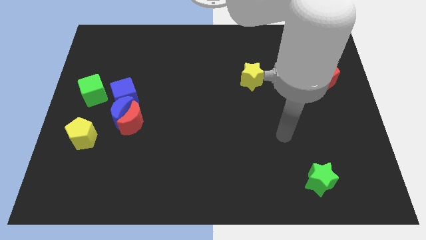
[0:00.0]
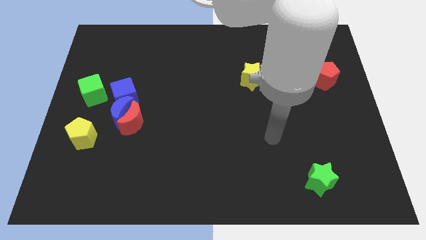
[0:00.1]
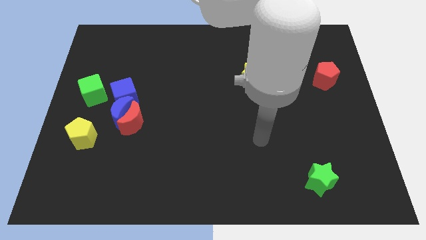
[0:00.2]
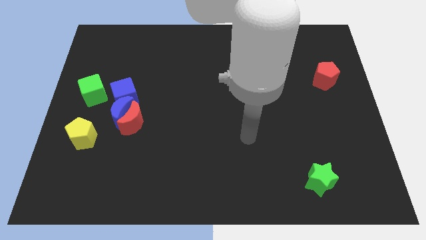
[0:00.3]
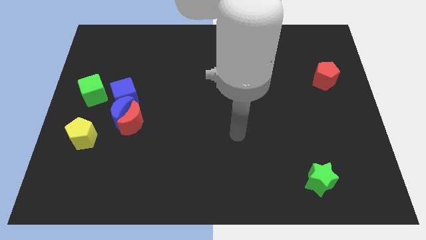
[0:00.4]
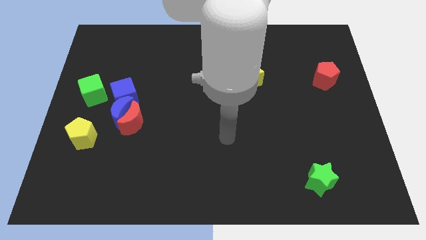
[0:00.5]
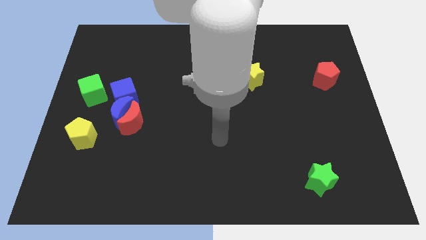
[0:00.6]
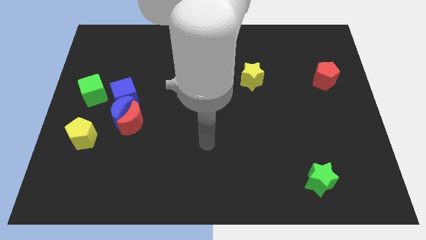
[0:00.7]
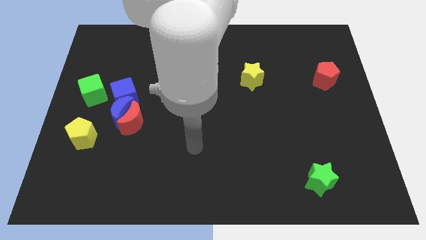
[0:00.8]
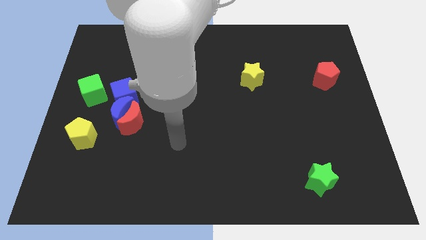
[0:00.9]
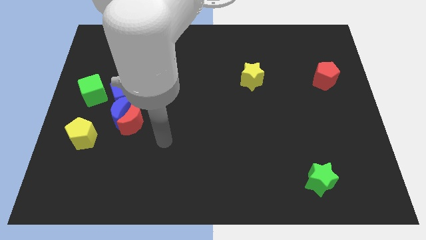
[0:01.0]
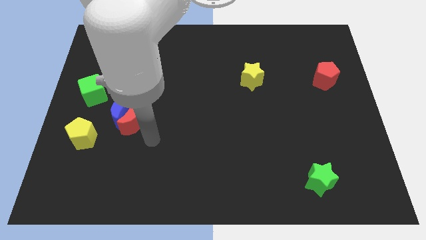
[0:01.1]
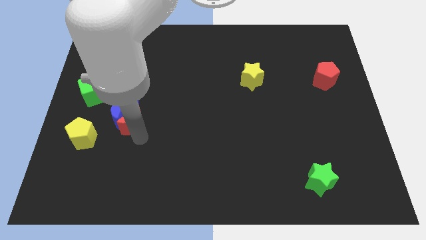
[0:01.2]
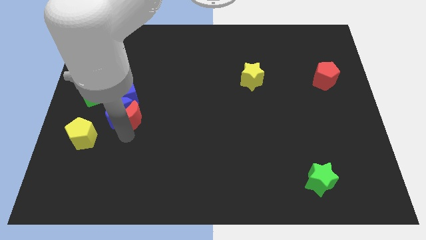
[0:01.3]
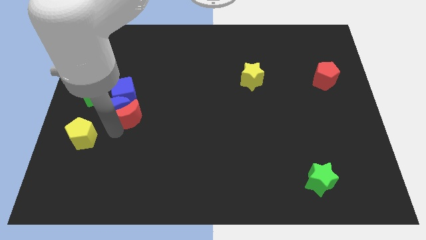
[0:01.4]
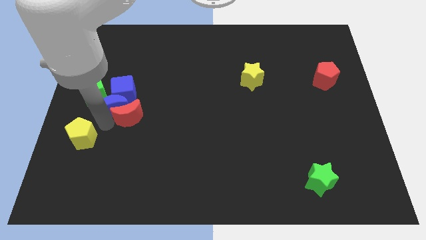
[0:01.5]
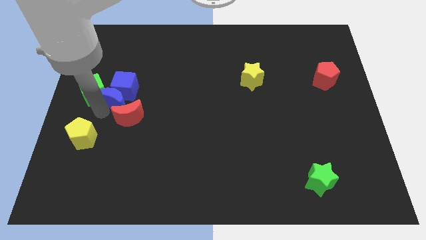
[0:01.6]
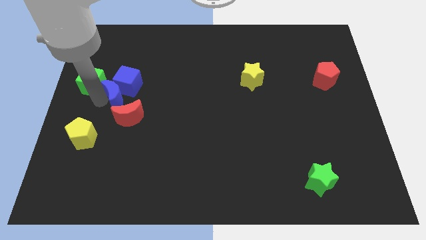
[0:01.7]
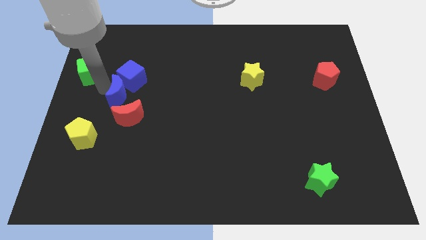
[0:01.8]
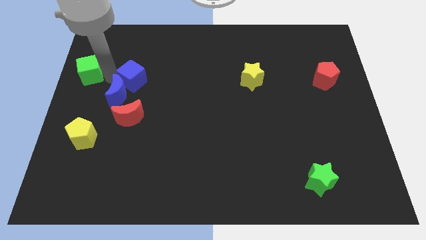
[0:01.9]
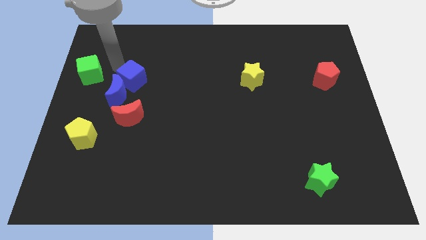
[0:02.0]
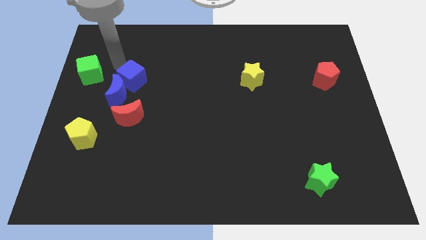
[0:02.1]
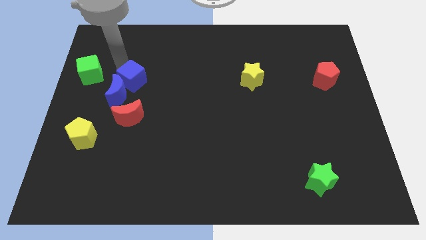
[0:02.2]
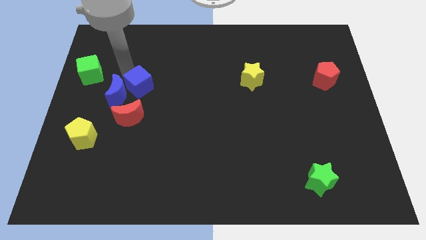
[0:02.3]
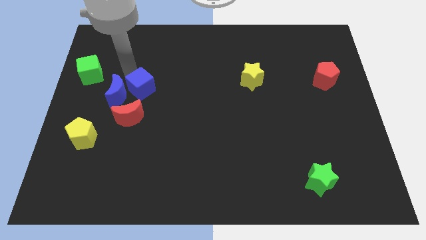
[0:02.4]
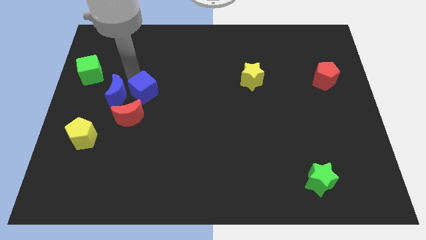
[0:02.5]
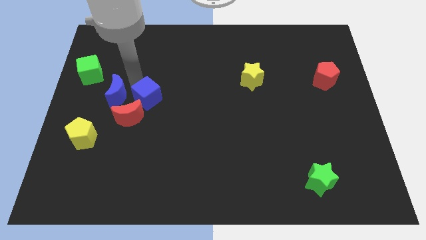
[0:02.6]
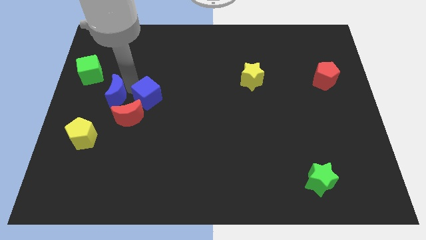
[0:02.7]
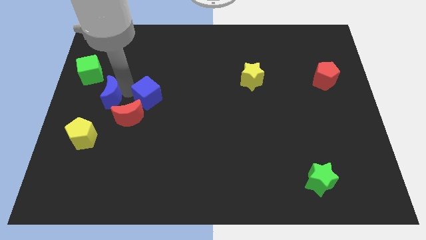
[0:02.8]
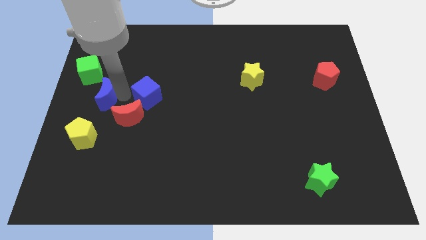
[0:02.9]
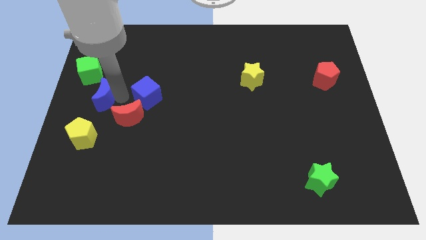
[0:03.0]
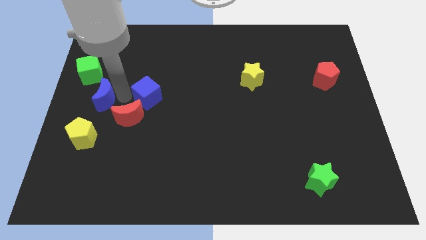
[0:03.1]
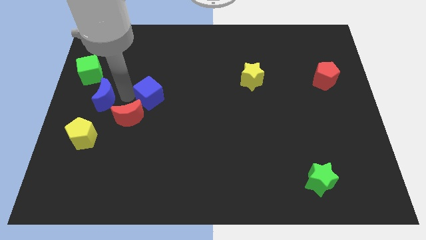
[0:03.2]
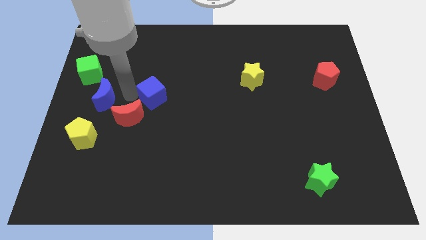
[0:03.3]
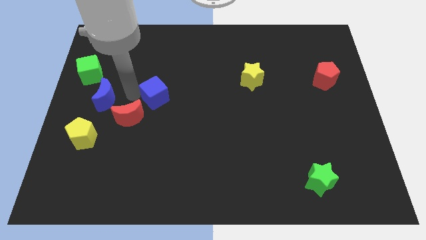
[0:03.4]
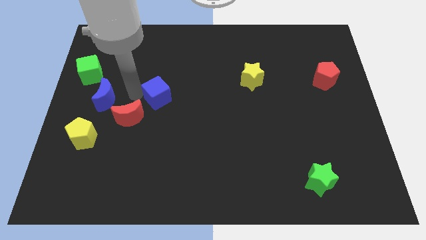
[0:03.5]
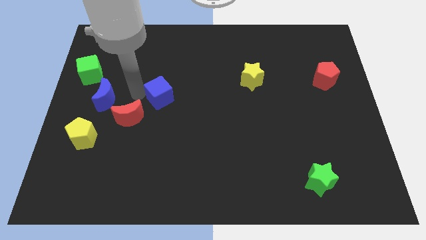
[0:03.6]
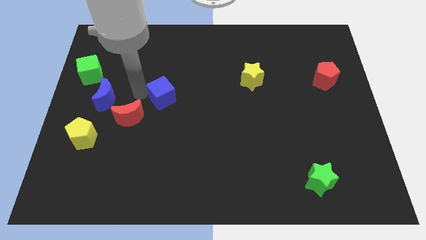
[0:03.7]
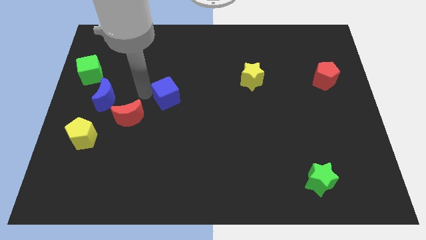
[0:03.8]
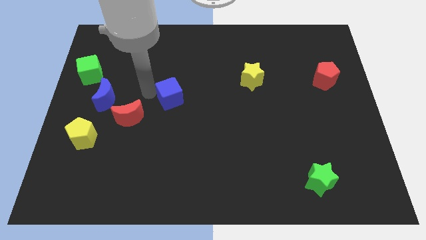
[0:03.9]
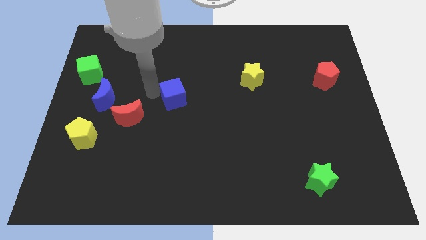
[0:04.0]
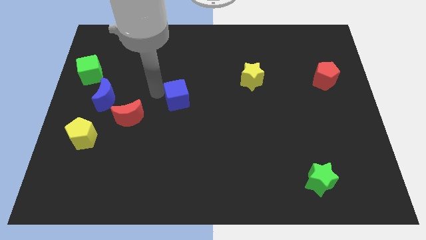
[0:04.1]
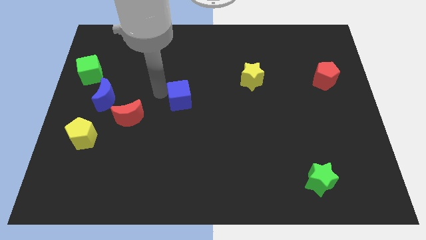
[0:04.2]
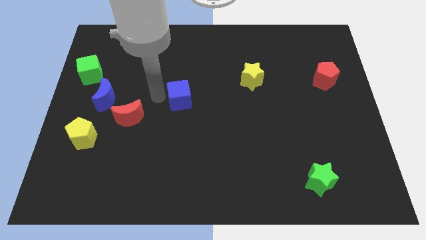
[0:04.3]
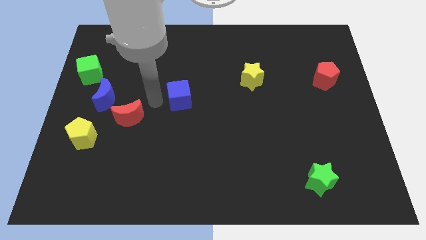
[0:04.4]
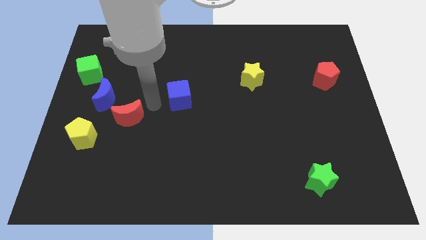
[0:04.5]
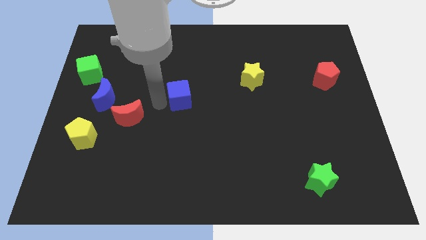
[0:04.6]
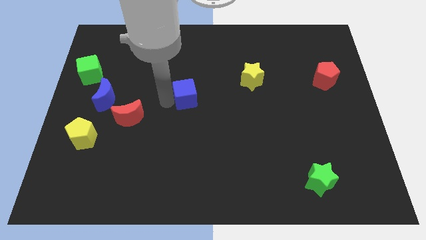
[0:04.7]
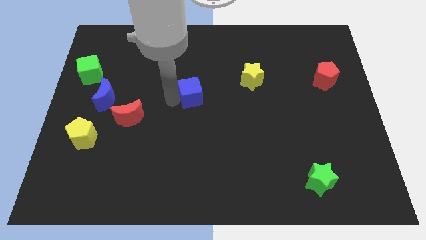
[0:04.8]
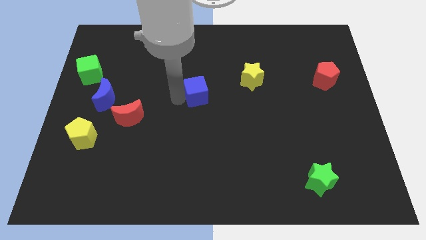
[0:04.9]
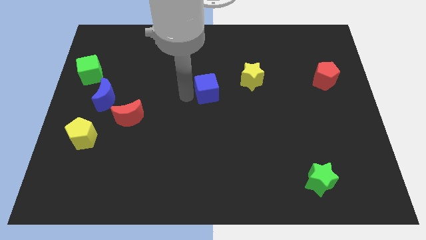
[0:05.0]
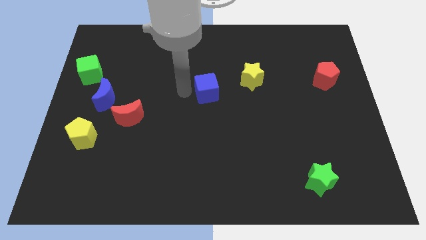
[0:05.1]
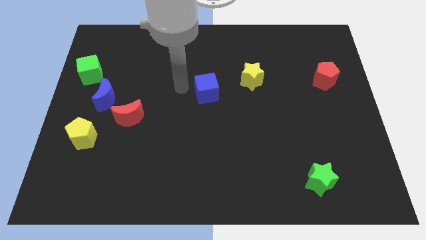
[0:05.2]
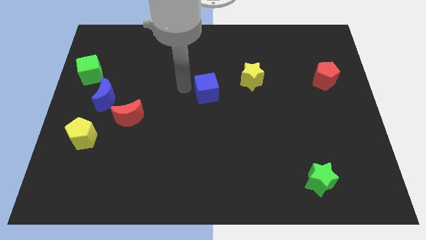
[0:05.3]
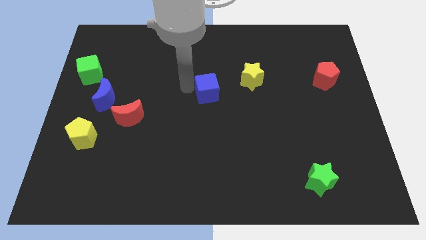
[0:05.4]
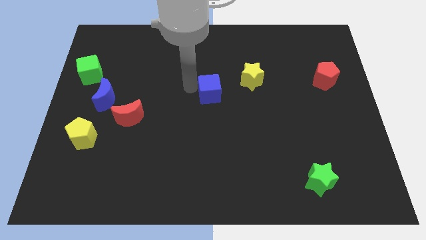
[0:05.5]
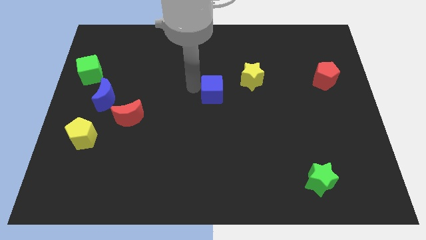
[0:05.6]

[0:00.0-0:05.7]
move the blue cube to the bottom left of the yellow star

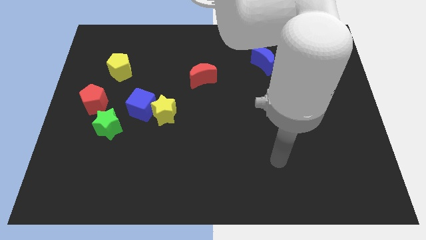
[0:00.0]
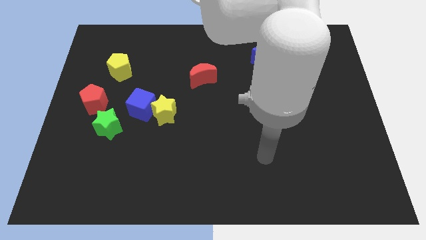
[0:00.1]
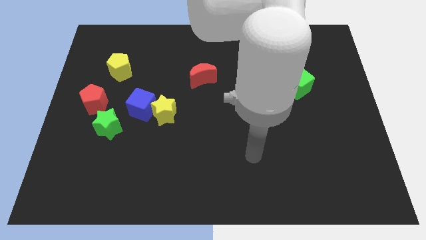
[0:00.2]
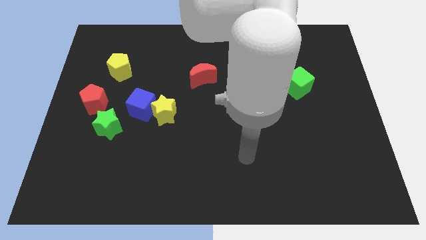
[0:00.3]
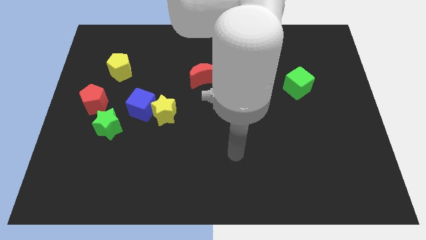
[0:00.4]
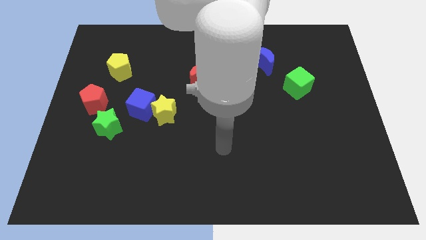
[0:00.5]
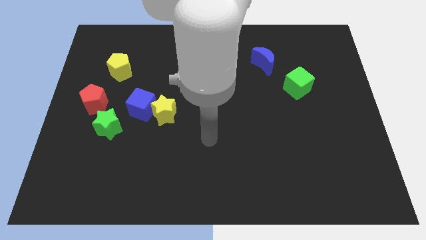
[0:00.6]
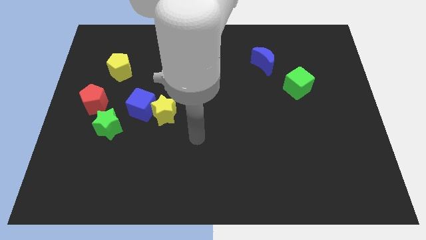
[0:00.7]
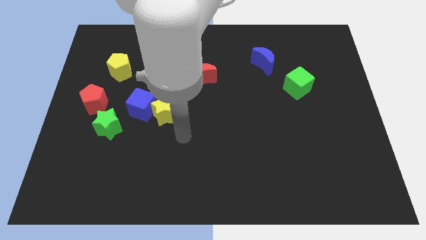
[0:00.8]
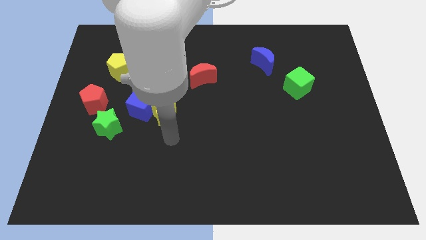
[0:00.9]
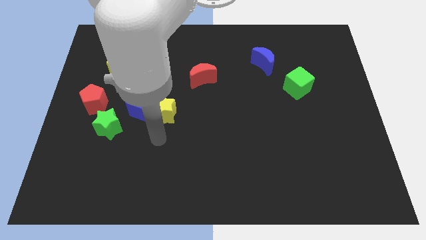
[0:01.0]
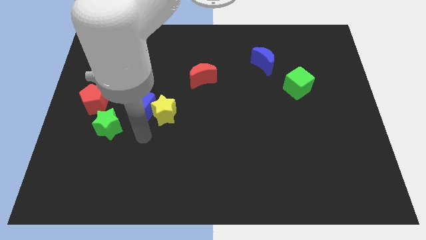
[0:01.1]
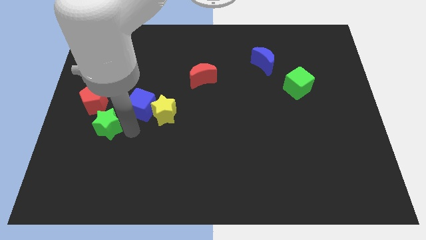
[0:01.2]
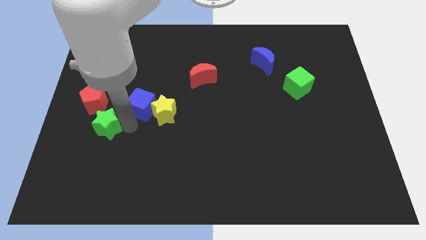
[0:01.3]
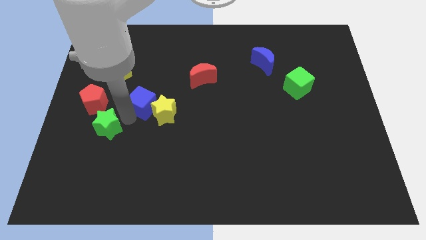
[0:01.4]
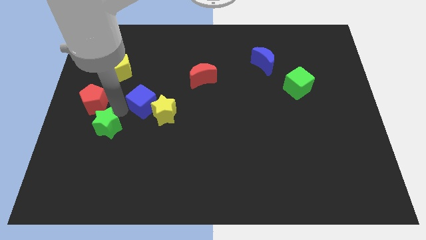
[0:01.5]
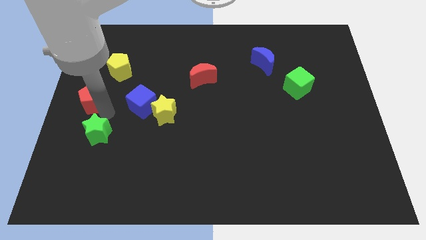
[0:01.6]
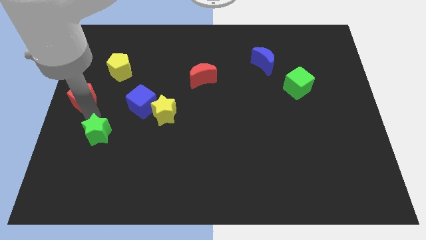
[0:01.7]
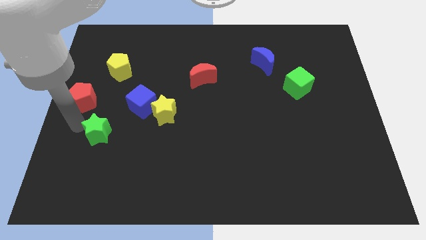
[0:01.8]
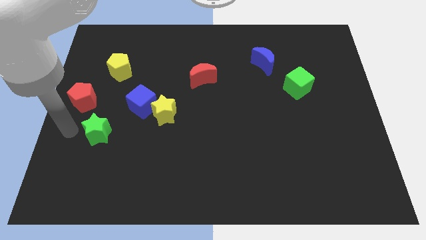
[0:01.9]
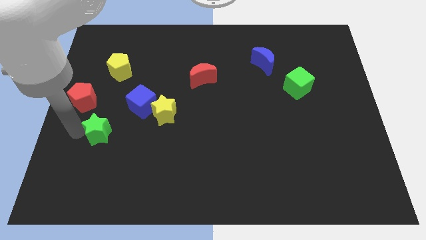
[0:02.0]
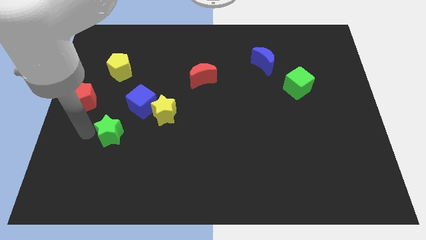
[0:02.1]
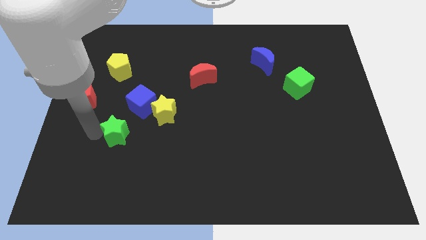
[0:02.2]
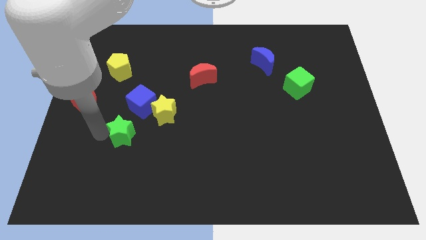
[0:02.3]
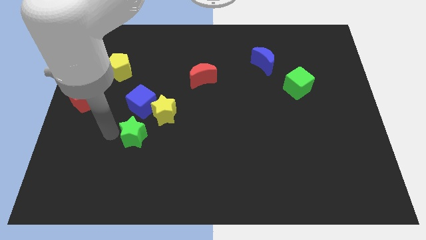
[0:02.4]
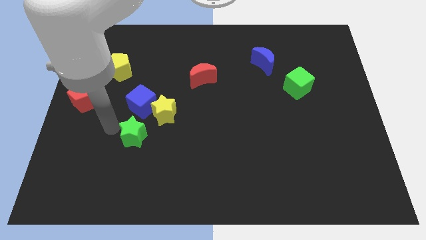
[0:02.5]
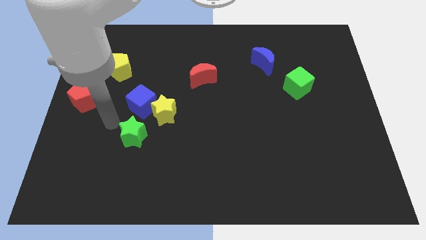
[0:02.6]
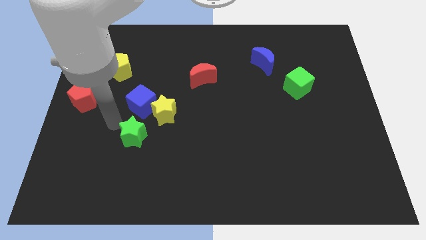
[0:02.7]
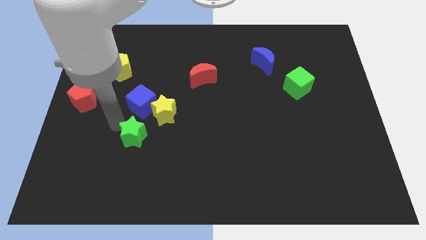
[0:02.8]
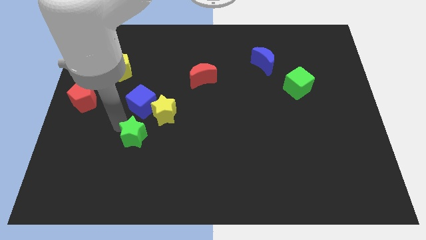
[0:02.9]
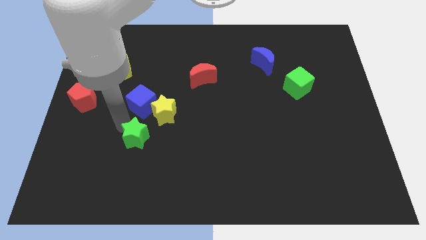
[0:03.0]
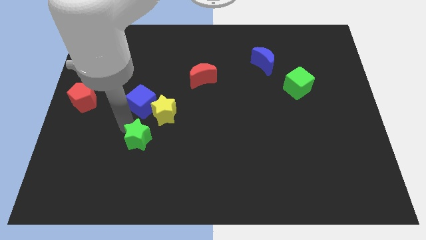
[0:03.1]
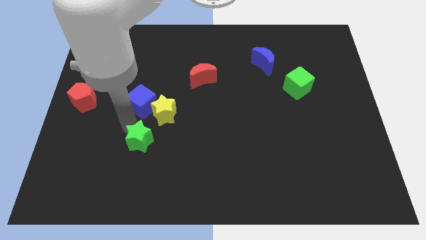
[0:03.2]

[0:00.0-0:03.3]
move the green star to the bottom of the yellow star
